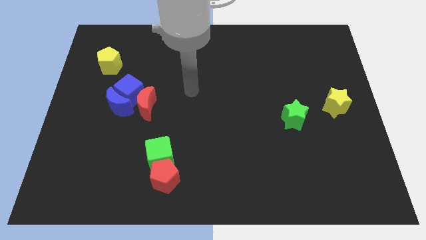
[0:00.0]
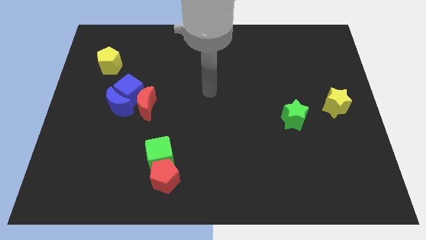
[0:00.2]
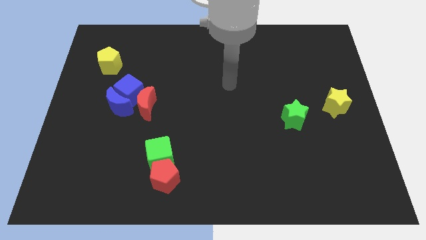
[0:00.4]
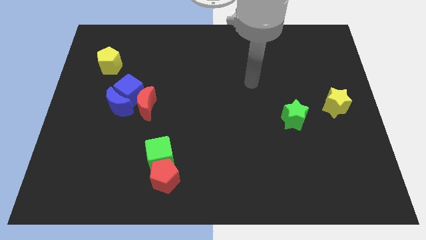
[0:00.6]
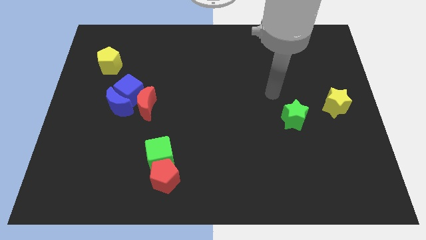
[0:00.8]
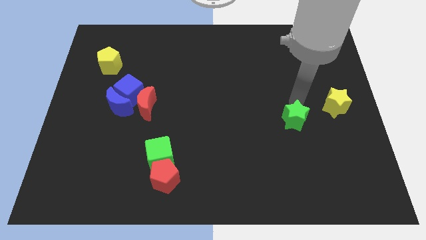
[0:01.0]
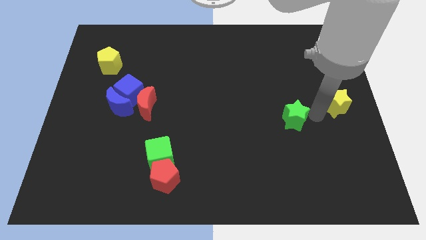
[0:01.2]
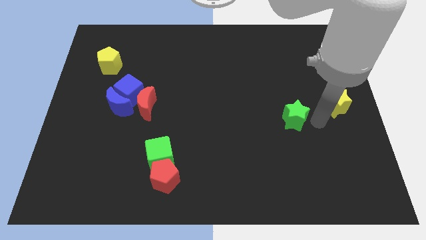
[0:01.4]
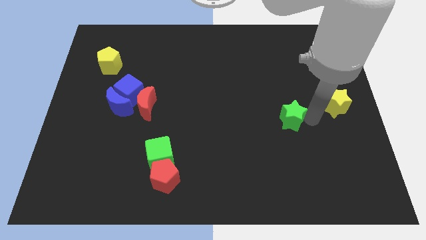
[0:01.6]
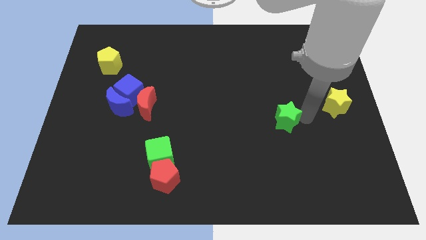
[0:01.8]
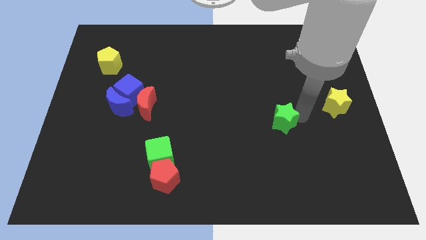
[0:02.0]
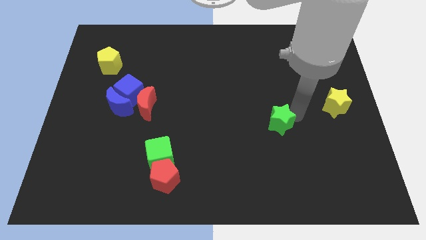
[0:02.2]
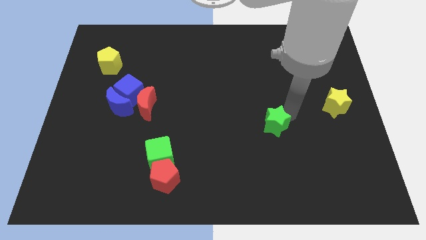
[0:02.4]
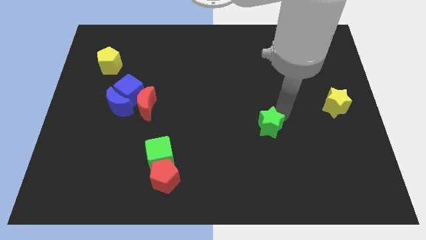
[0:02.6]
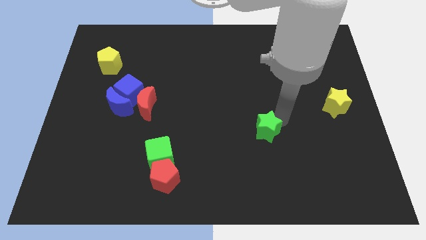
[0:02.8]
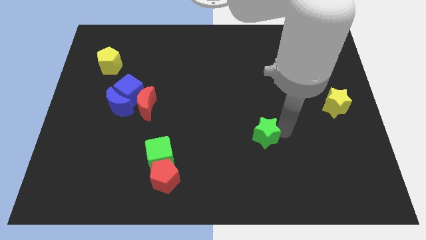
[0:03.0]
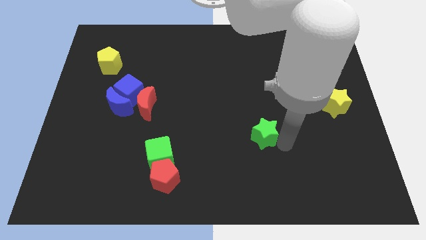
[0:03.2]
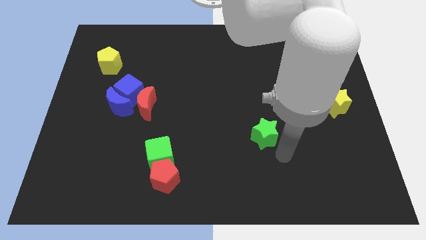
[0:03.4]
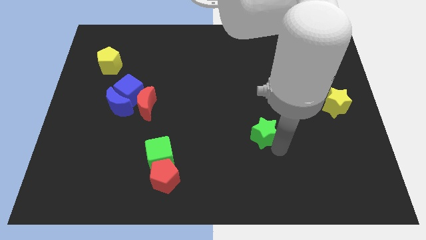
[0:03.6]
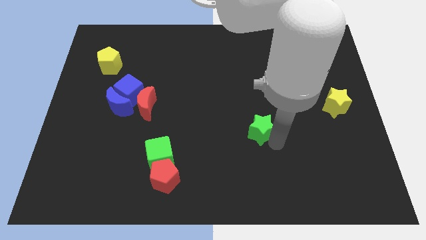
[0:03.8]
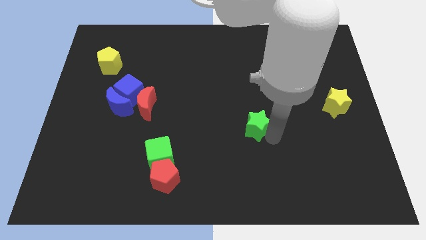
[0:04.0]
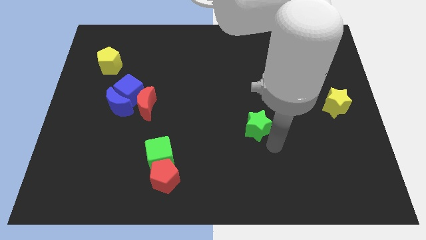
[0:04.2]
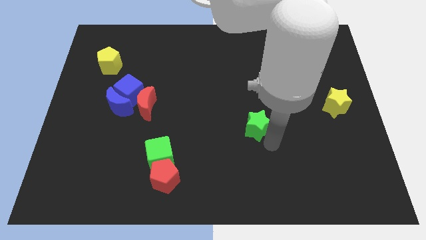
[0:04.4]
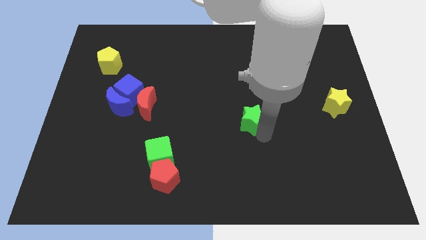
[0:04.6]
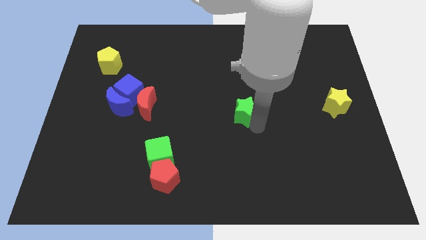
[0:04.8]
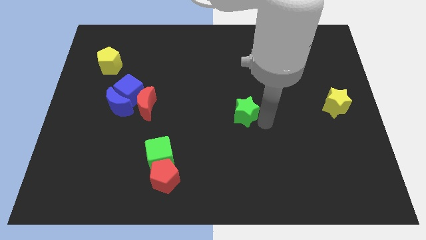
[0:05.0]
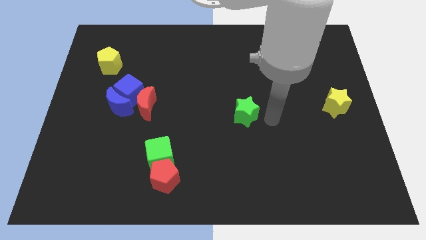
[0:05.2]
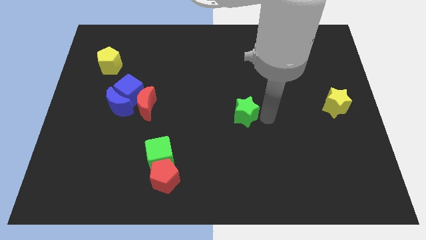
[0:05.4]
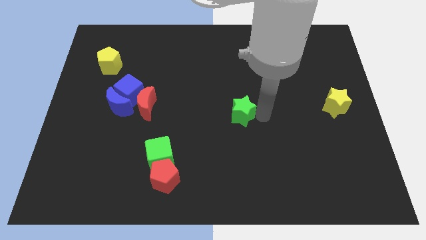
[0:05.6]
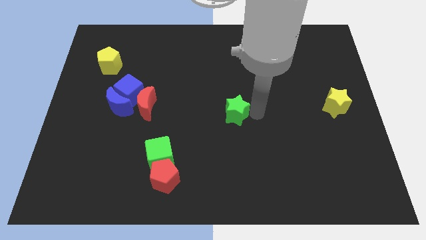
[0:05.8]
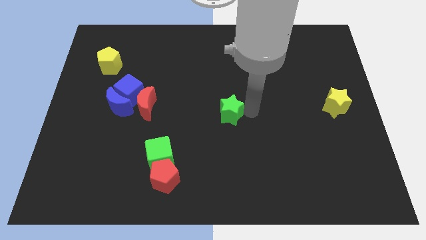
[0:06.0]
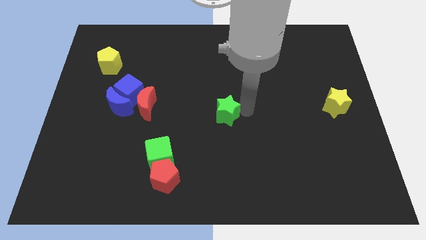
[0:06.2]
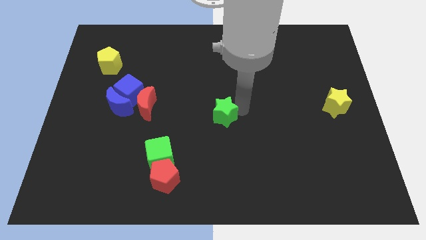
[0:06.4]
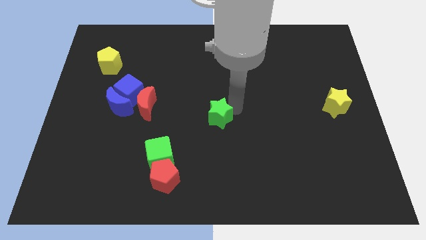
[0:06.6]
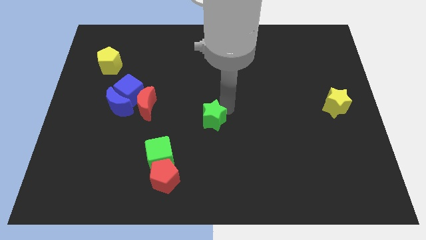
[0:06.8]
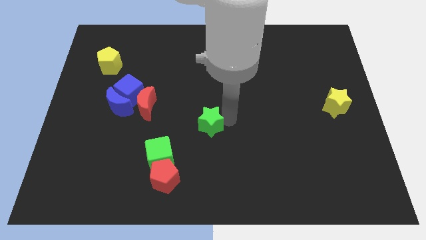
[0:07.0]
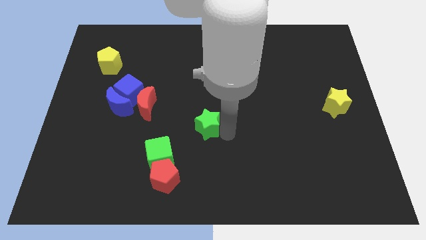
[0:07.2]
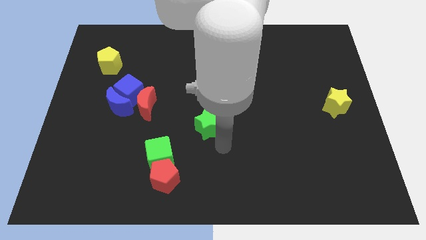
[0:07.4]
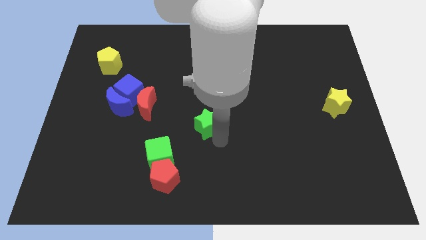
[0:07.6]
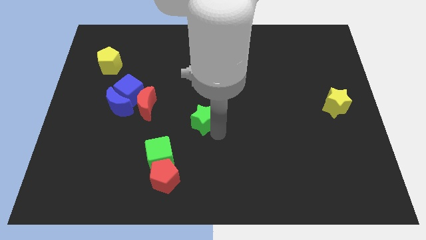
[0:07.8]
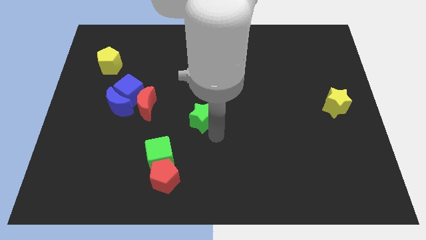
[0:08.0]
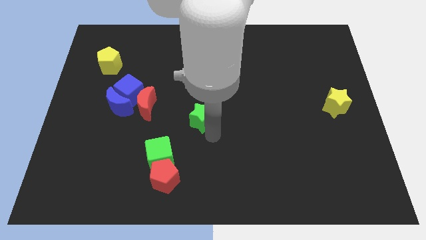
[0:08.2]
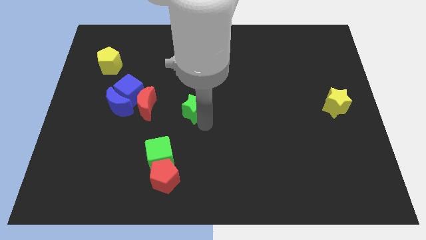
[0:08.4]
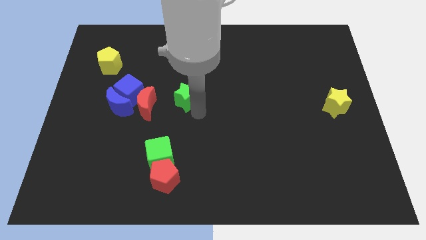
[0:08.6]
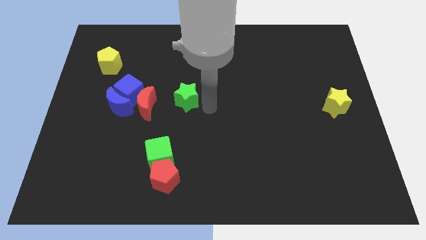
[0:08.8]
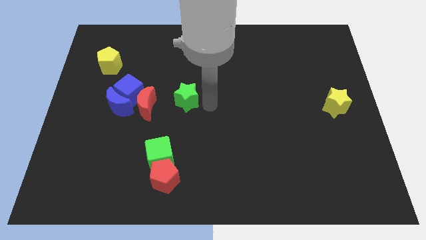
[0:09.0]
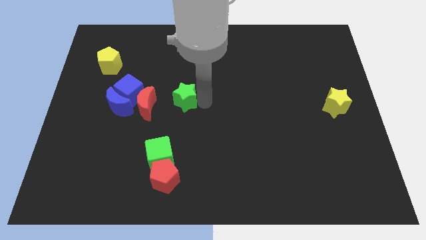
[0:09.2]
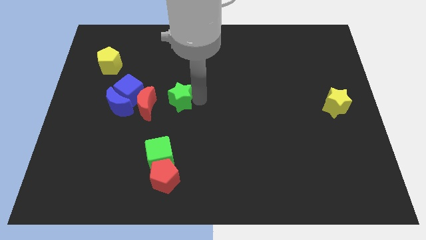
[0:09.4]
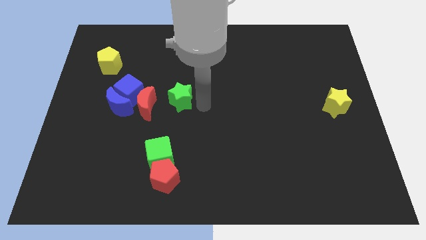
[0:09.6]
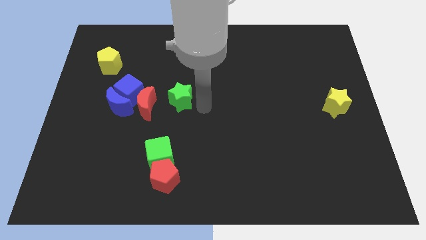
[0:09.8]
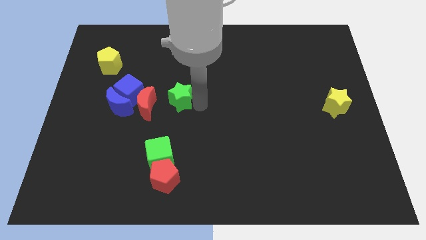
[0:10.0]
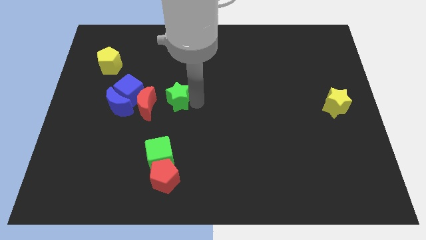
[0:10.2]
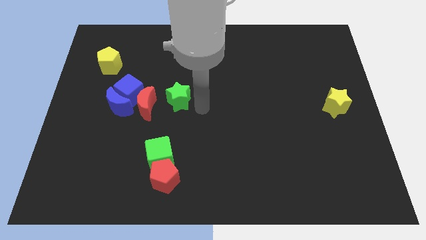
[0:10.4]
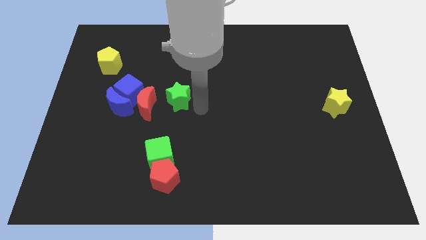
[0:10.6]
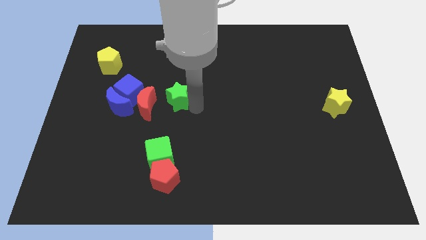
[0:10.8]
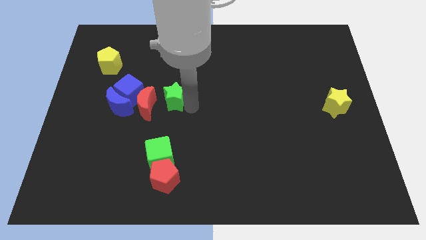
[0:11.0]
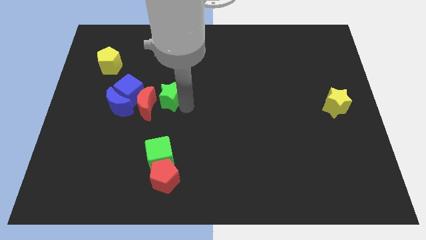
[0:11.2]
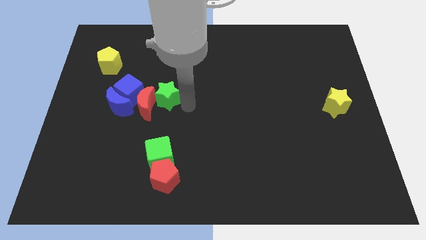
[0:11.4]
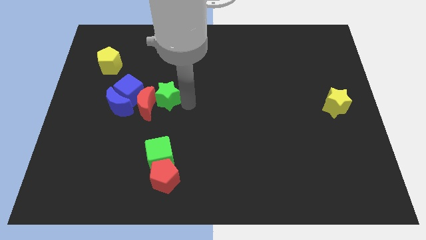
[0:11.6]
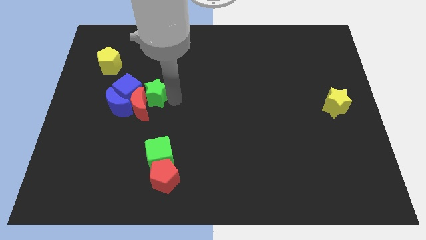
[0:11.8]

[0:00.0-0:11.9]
put the green star diagonally up and to the right of the blue moon

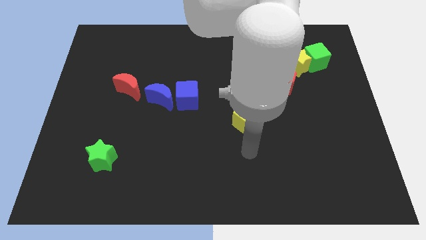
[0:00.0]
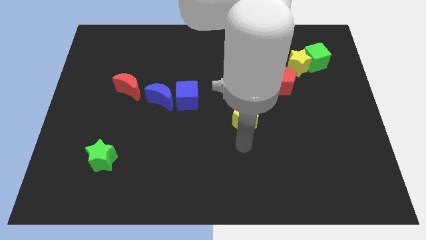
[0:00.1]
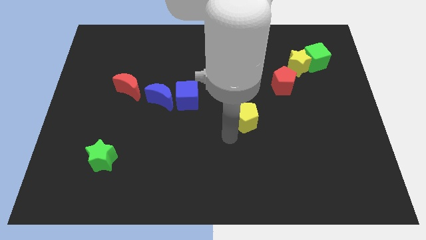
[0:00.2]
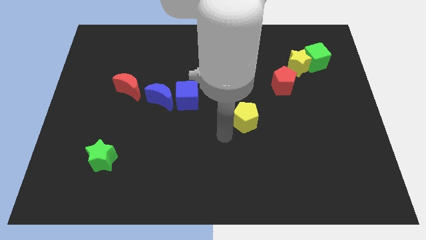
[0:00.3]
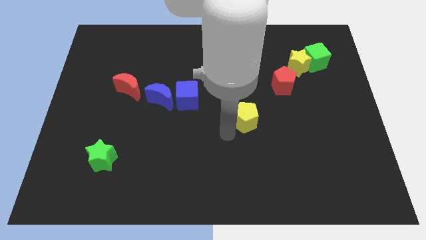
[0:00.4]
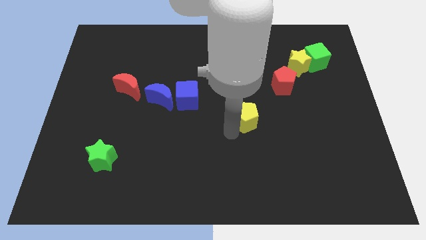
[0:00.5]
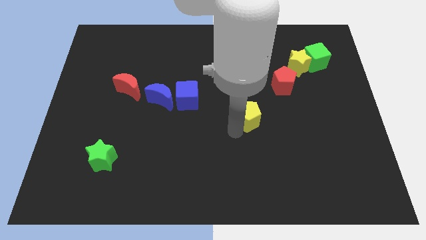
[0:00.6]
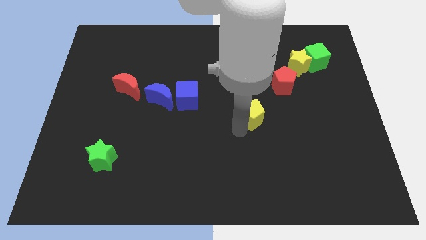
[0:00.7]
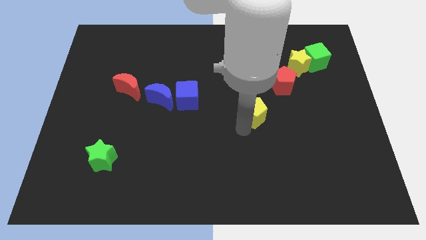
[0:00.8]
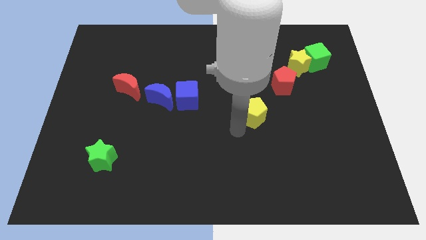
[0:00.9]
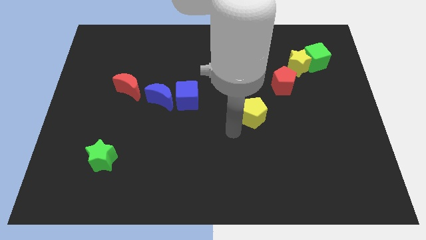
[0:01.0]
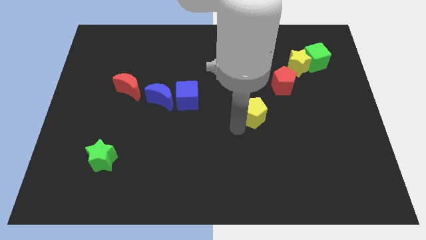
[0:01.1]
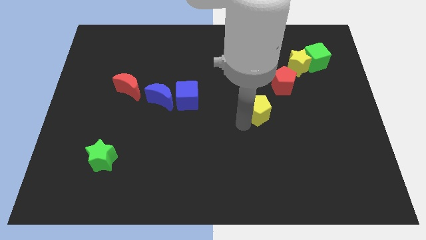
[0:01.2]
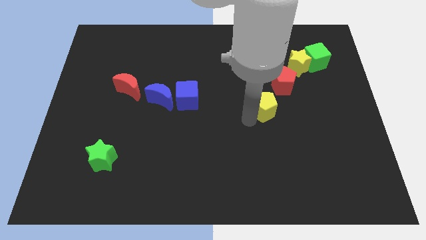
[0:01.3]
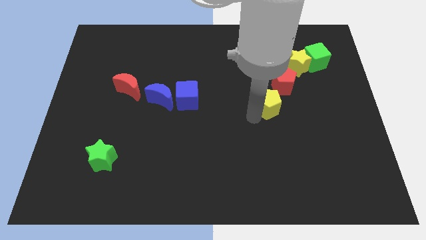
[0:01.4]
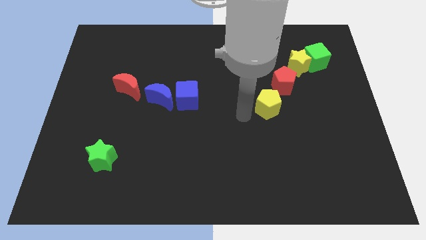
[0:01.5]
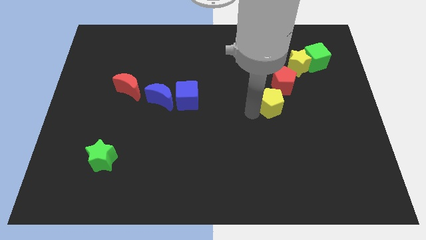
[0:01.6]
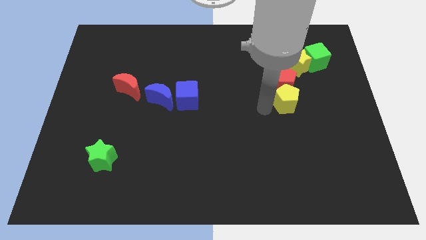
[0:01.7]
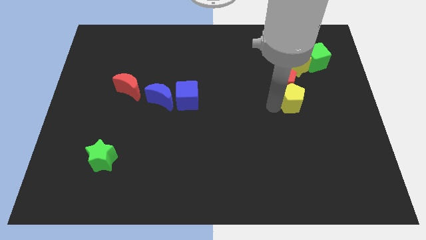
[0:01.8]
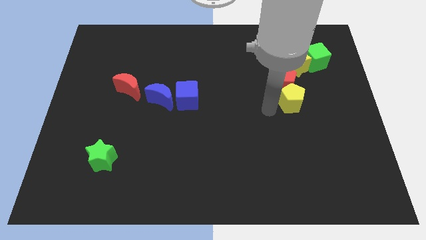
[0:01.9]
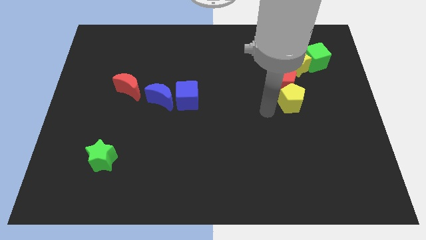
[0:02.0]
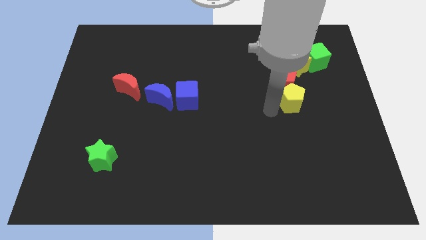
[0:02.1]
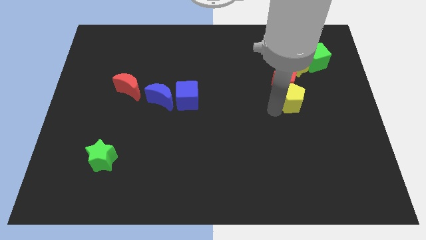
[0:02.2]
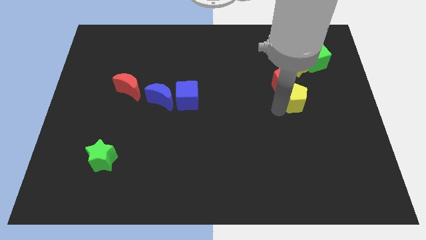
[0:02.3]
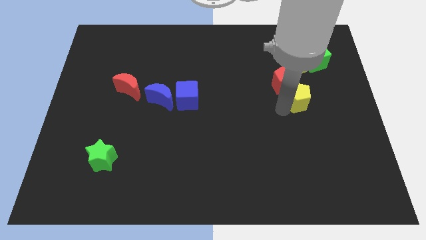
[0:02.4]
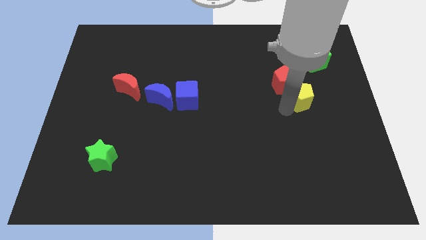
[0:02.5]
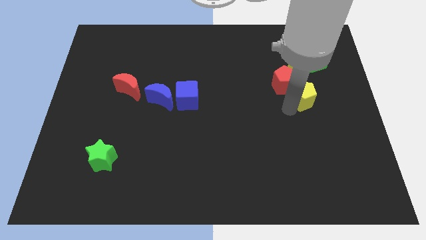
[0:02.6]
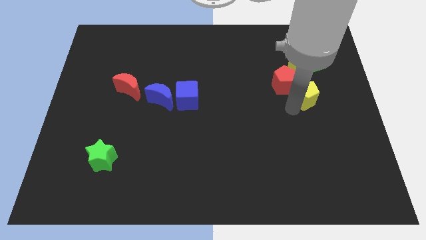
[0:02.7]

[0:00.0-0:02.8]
slide the yellow pentagon below the green cube
